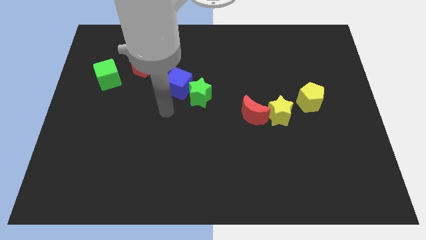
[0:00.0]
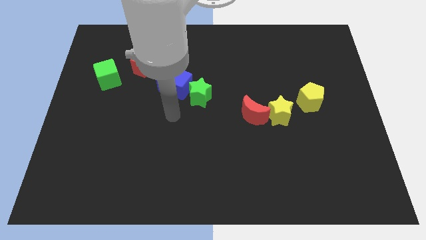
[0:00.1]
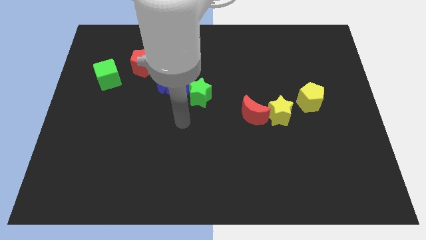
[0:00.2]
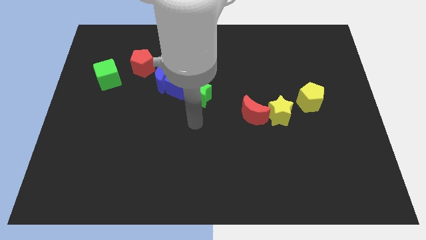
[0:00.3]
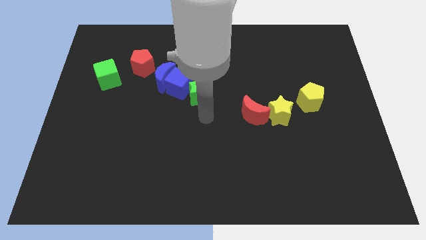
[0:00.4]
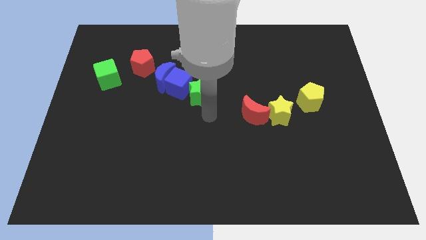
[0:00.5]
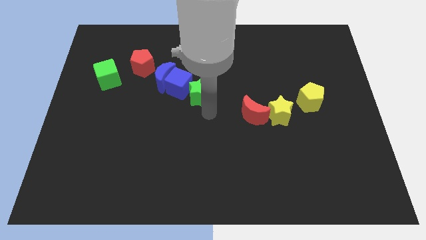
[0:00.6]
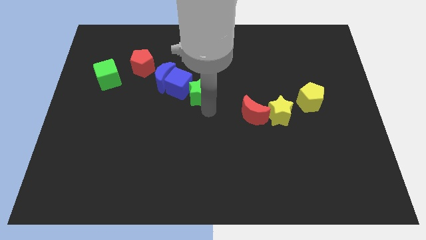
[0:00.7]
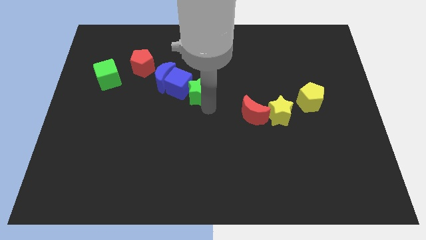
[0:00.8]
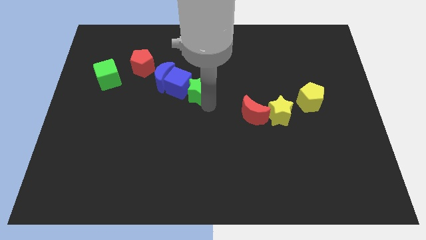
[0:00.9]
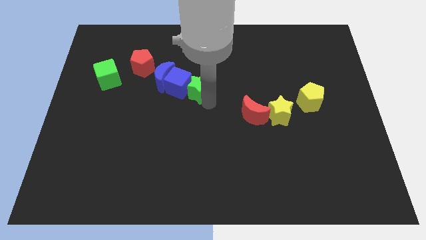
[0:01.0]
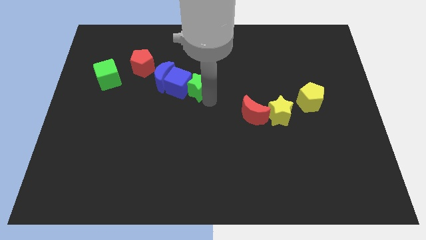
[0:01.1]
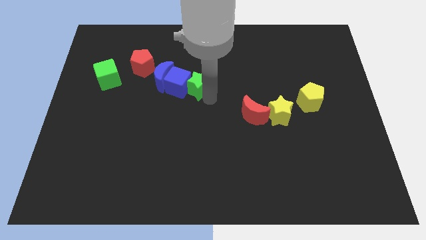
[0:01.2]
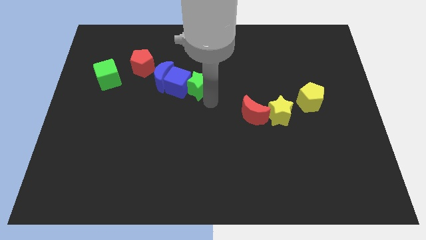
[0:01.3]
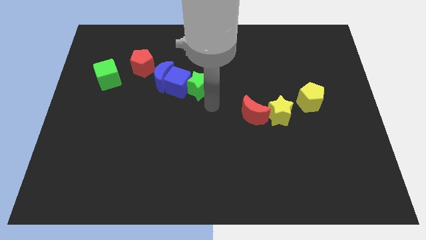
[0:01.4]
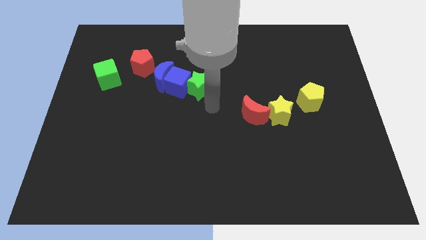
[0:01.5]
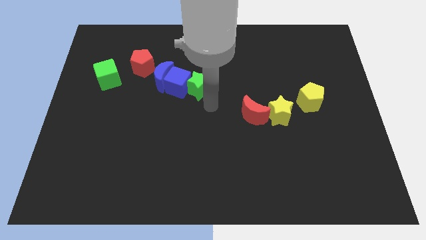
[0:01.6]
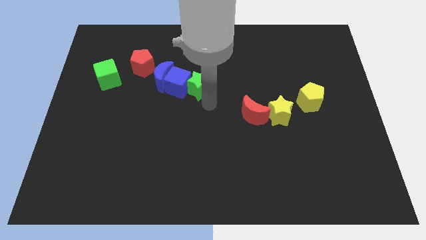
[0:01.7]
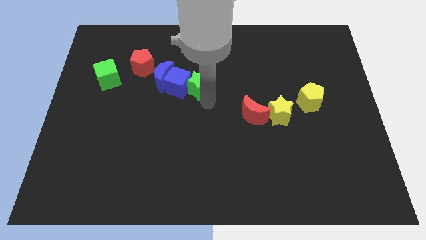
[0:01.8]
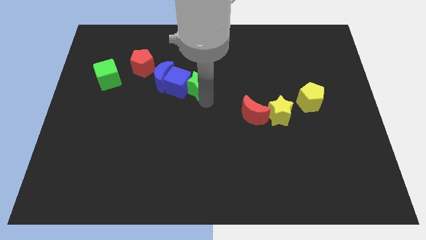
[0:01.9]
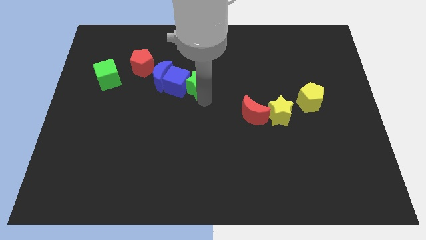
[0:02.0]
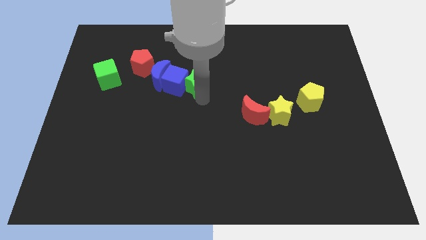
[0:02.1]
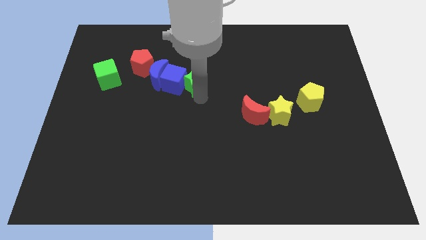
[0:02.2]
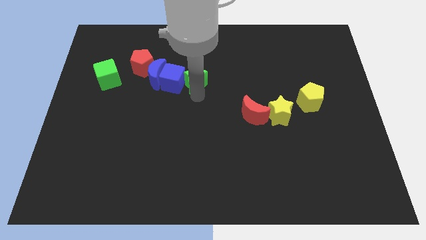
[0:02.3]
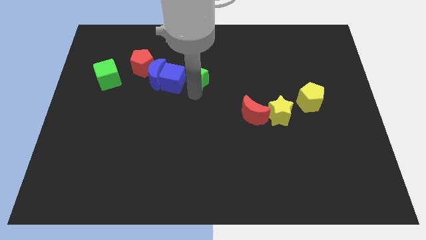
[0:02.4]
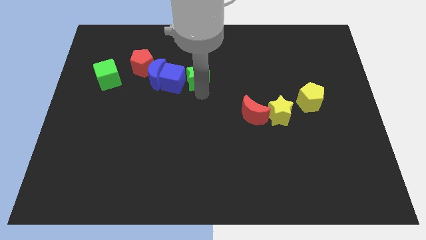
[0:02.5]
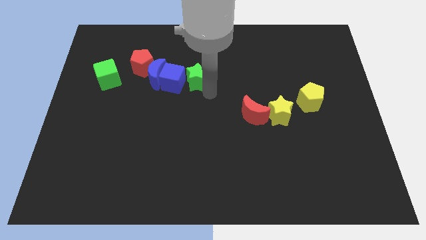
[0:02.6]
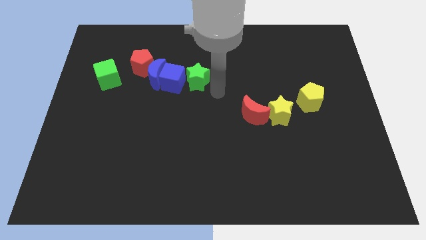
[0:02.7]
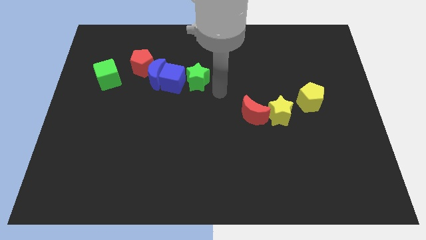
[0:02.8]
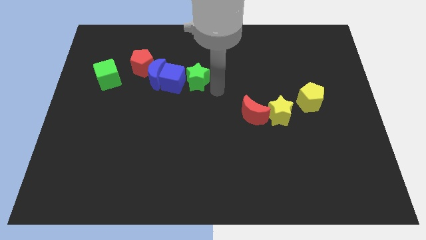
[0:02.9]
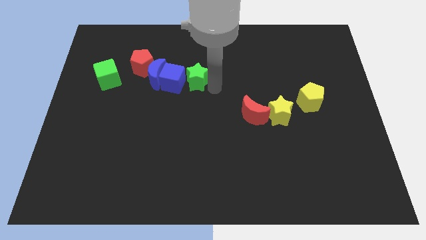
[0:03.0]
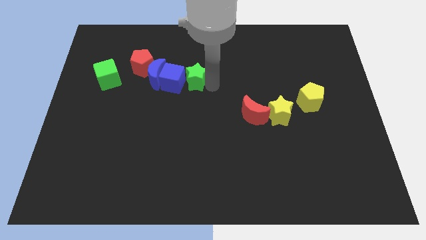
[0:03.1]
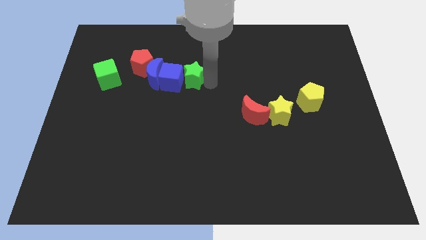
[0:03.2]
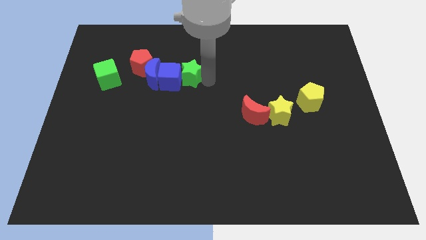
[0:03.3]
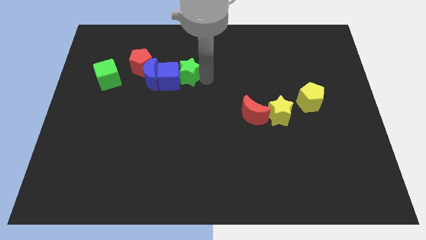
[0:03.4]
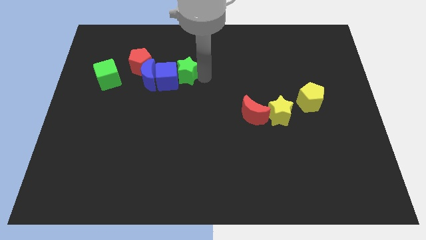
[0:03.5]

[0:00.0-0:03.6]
slide the green star up and left a bit

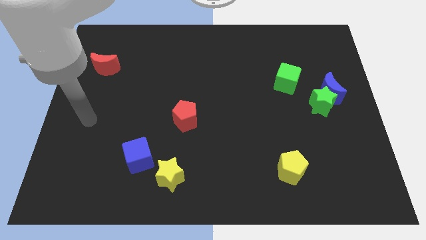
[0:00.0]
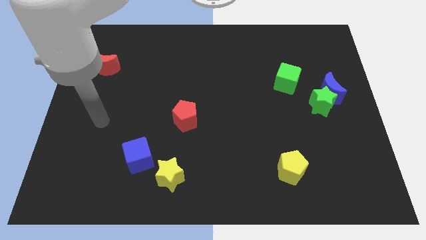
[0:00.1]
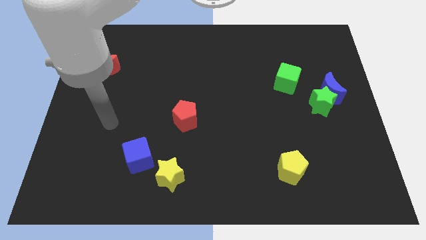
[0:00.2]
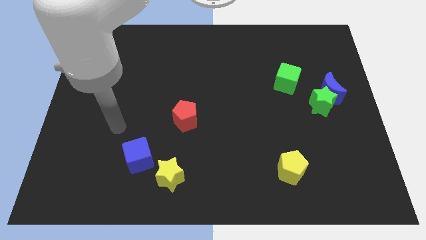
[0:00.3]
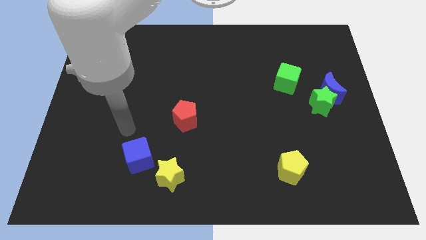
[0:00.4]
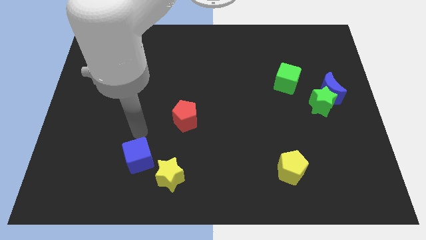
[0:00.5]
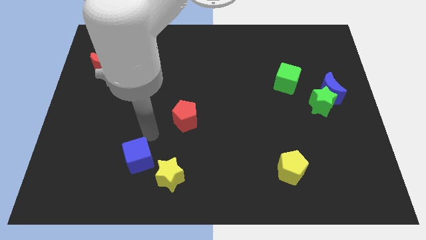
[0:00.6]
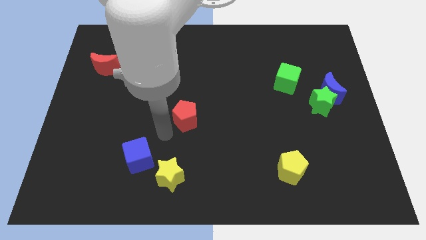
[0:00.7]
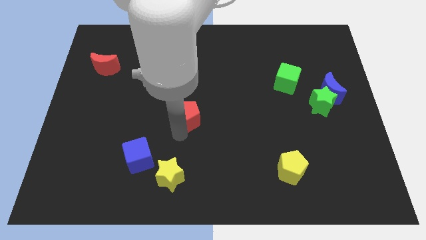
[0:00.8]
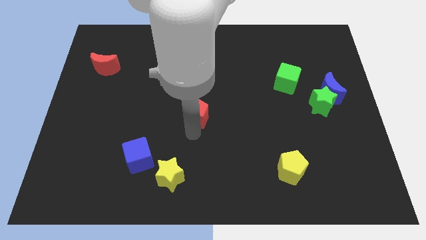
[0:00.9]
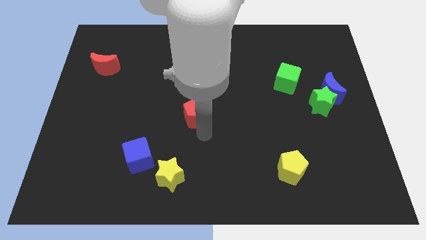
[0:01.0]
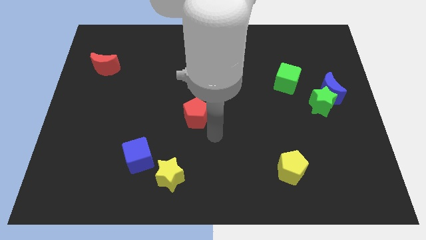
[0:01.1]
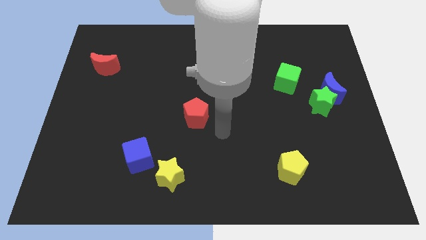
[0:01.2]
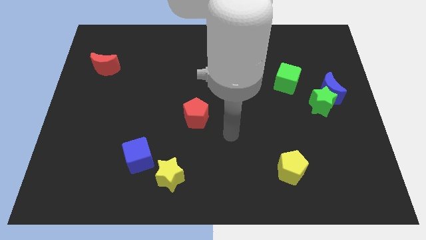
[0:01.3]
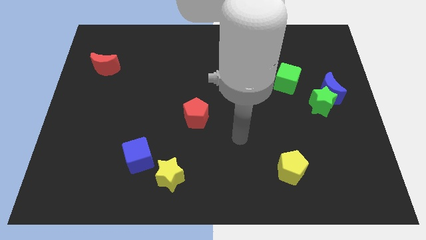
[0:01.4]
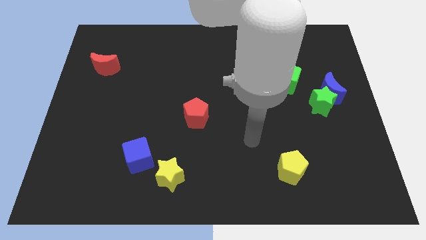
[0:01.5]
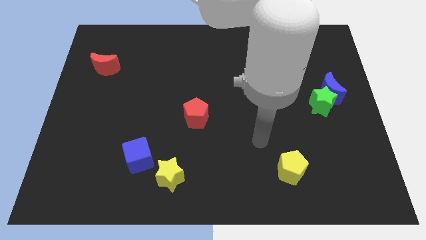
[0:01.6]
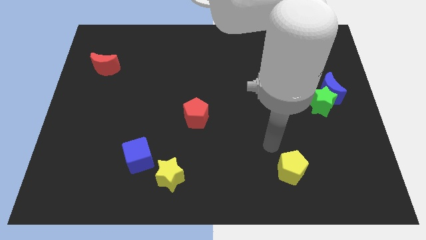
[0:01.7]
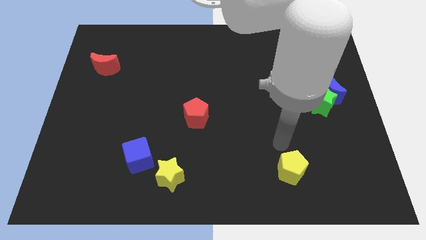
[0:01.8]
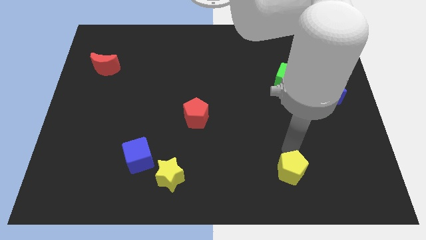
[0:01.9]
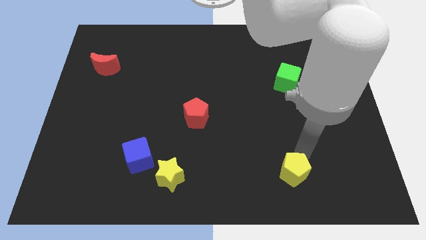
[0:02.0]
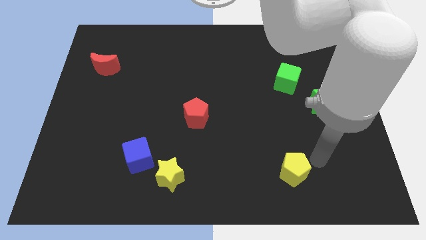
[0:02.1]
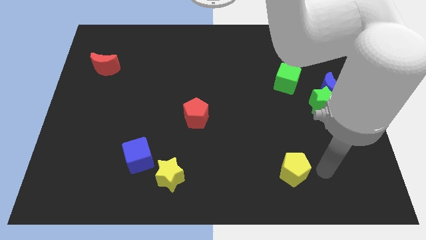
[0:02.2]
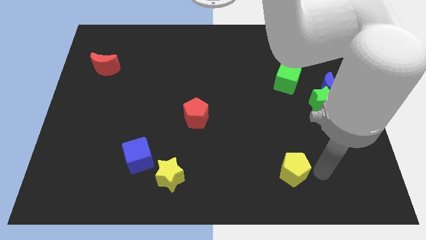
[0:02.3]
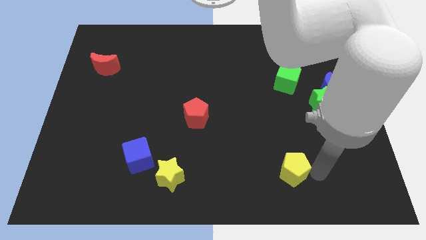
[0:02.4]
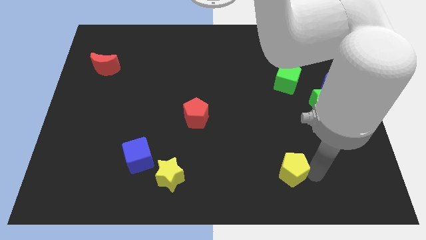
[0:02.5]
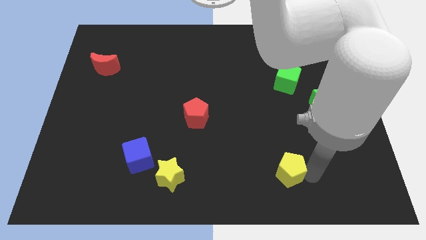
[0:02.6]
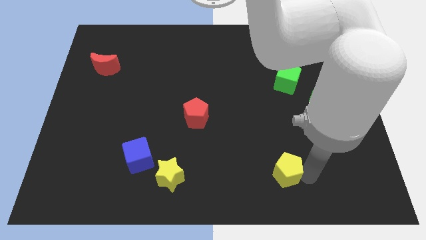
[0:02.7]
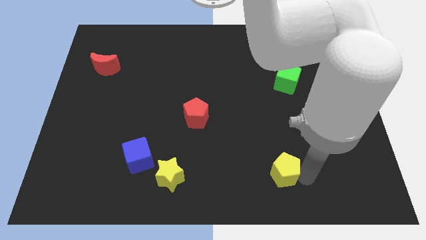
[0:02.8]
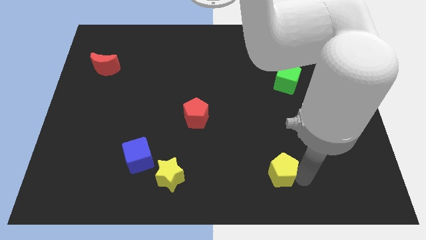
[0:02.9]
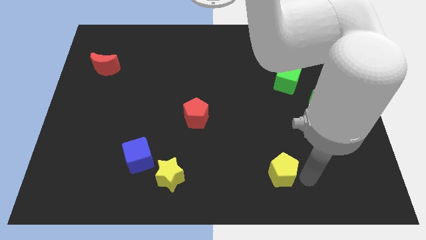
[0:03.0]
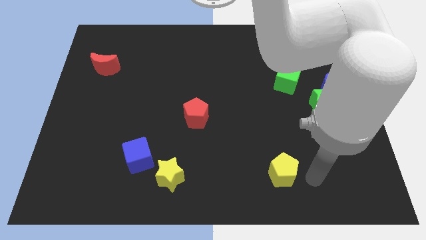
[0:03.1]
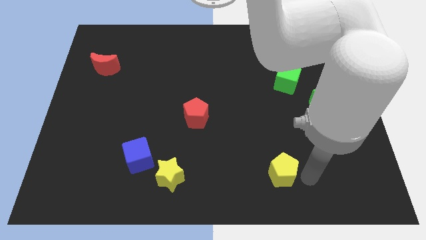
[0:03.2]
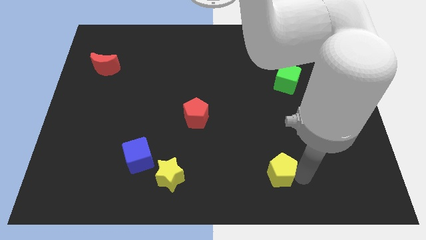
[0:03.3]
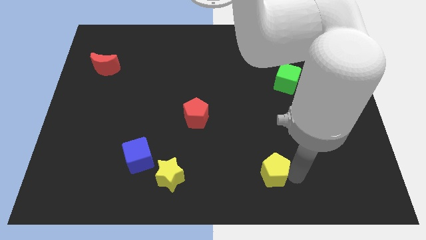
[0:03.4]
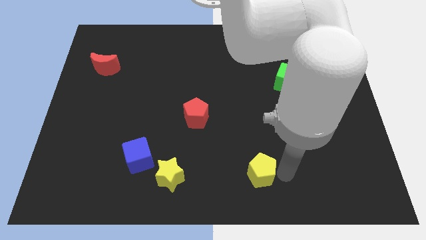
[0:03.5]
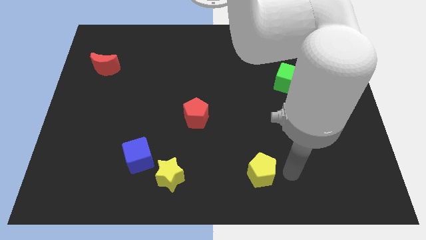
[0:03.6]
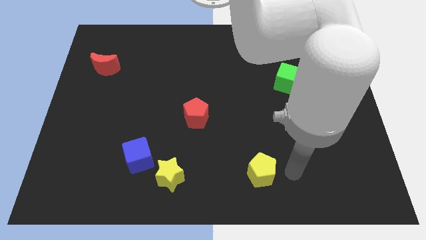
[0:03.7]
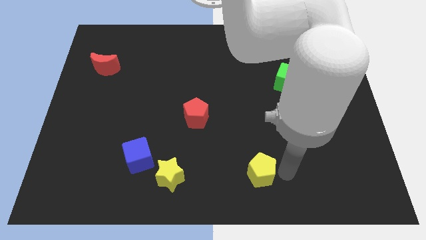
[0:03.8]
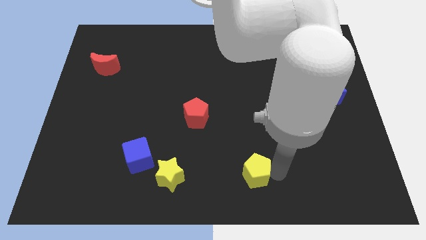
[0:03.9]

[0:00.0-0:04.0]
move the yellow pentagon a little to the left

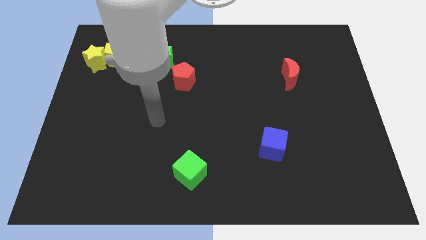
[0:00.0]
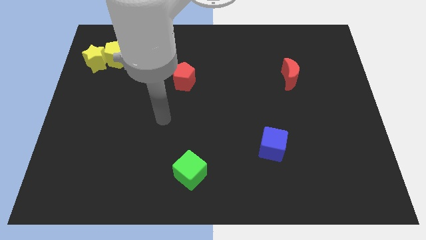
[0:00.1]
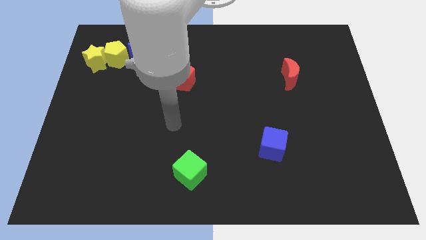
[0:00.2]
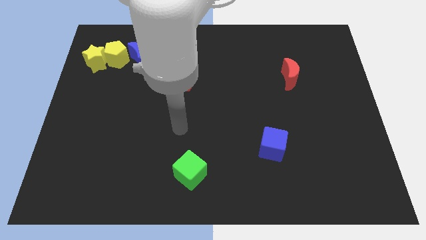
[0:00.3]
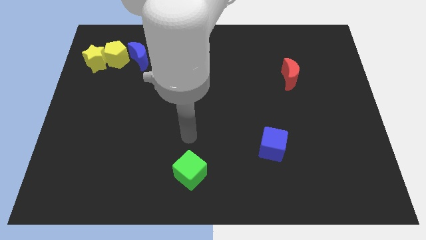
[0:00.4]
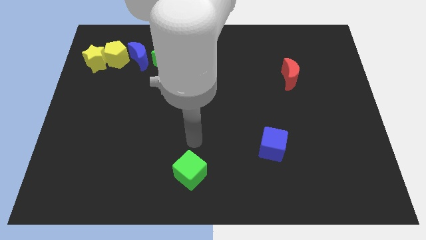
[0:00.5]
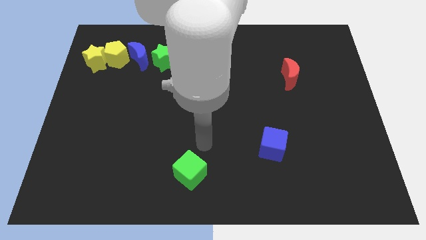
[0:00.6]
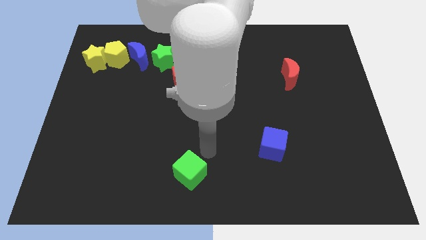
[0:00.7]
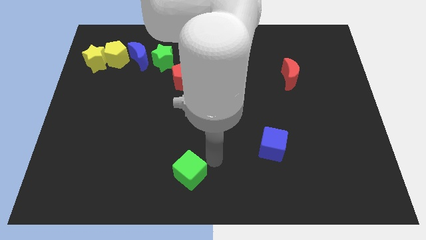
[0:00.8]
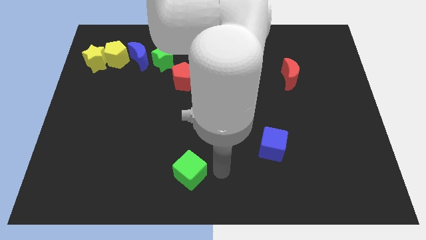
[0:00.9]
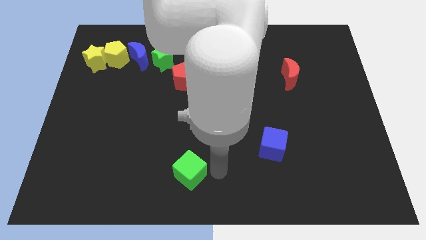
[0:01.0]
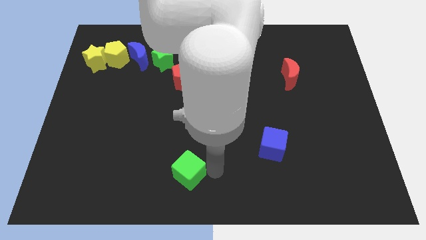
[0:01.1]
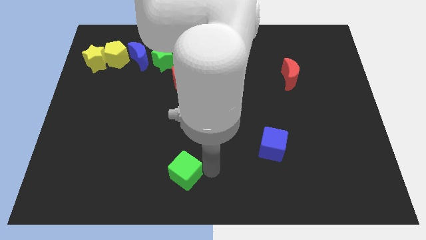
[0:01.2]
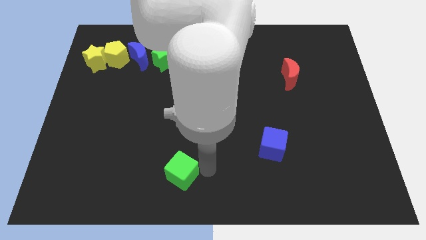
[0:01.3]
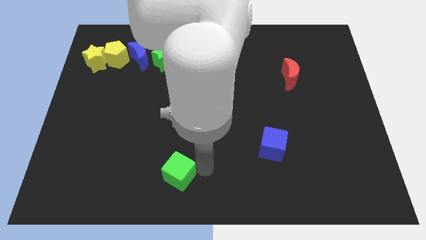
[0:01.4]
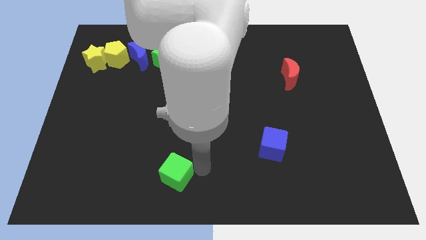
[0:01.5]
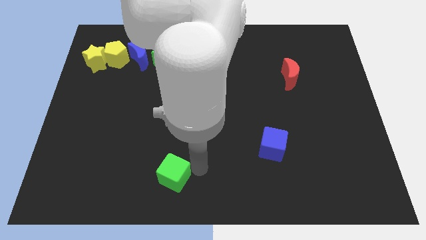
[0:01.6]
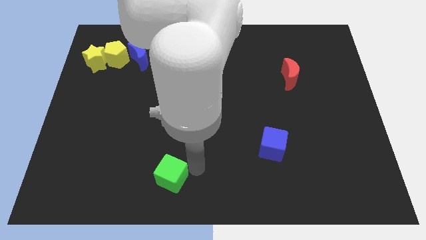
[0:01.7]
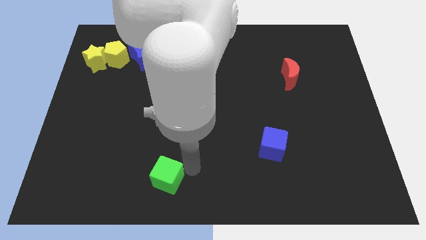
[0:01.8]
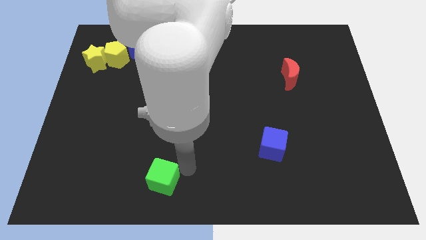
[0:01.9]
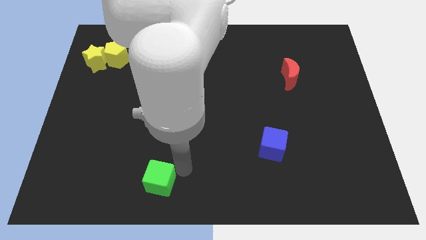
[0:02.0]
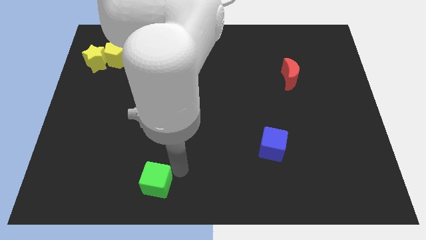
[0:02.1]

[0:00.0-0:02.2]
slightly push the green cube left
